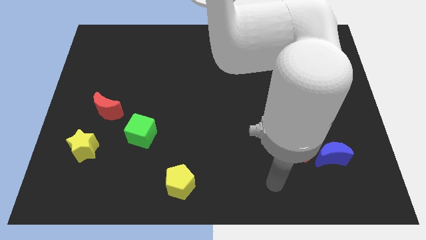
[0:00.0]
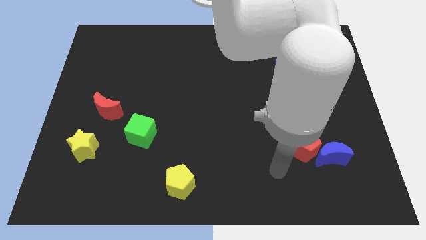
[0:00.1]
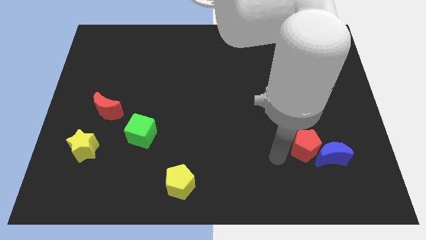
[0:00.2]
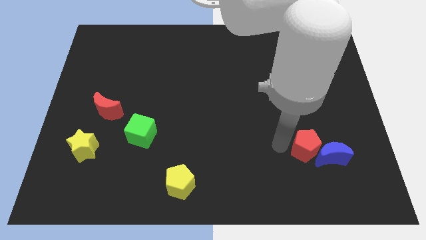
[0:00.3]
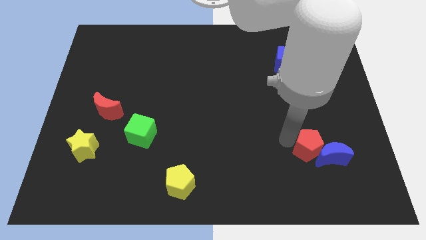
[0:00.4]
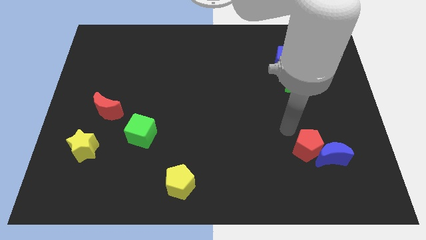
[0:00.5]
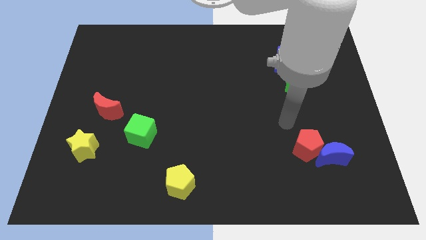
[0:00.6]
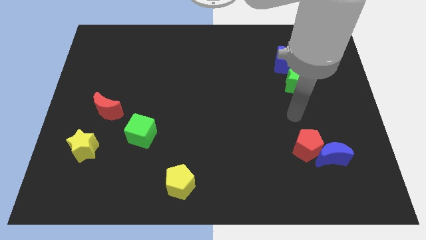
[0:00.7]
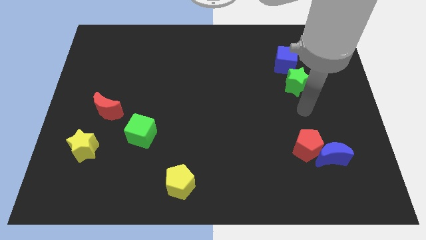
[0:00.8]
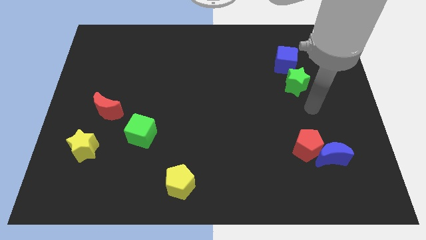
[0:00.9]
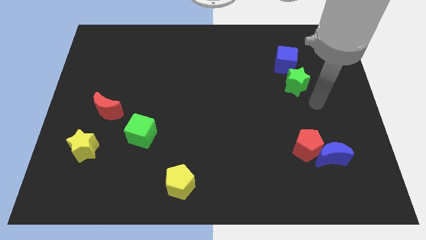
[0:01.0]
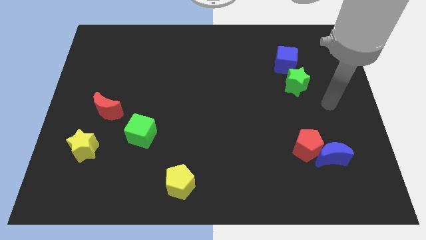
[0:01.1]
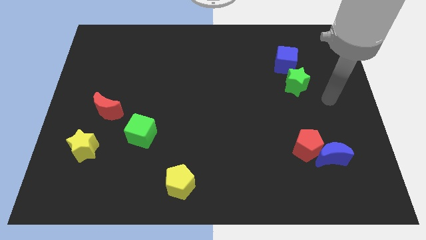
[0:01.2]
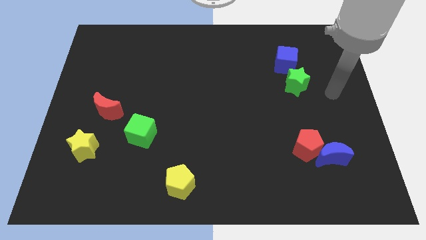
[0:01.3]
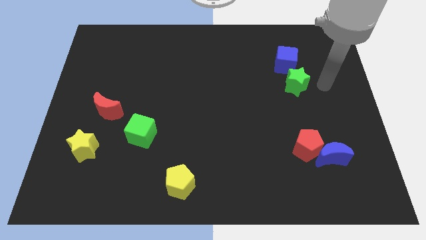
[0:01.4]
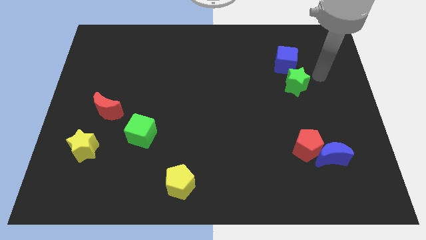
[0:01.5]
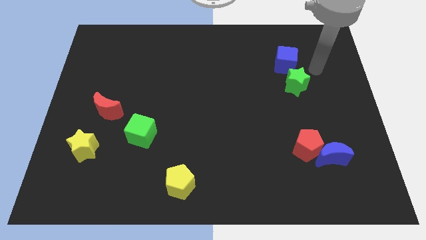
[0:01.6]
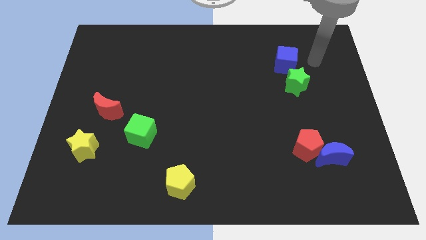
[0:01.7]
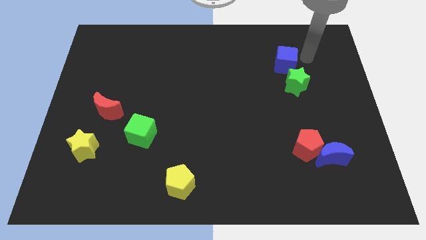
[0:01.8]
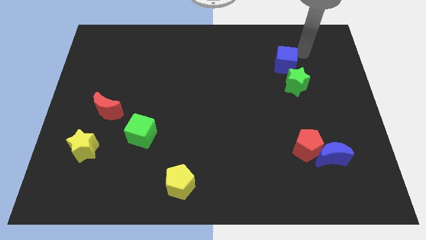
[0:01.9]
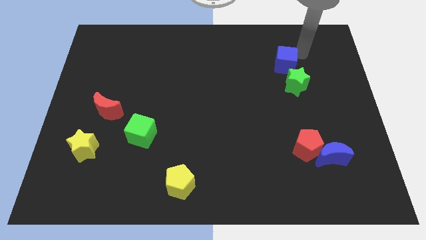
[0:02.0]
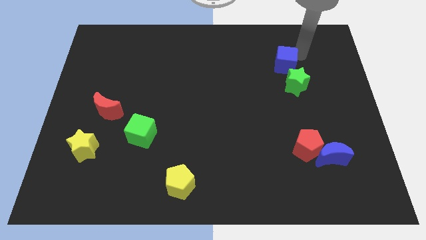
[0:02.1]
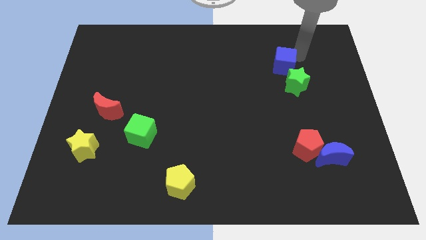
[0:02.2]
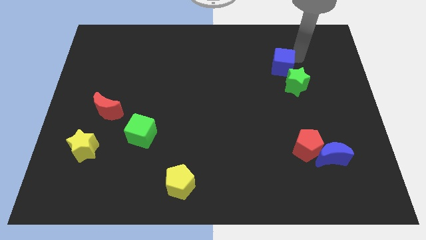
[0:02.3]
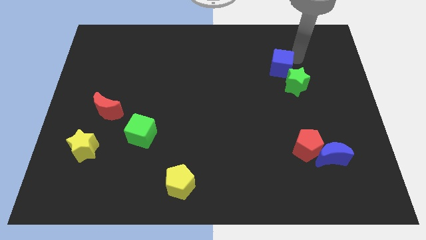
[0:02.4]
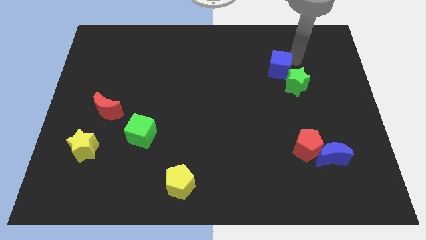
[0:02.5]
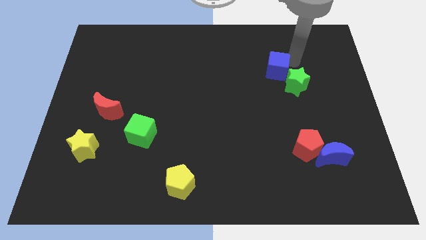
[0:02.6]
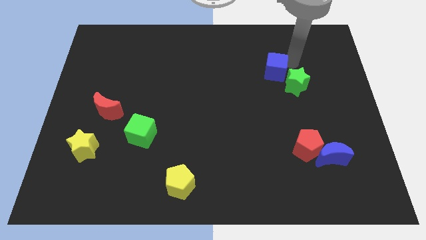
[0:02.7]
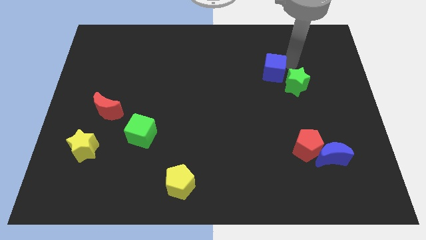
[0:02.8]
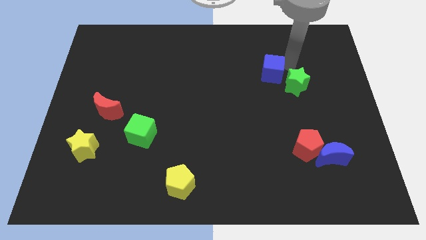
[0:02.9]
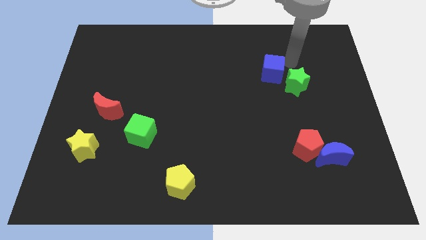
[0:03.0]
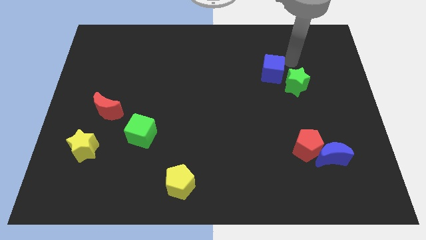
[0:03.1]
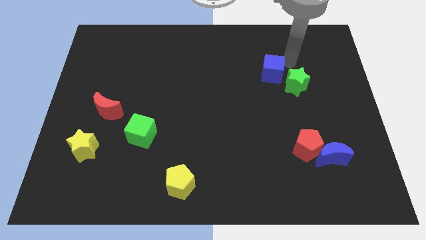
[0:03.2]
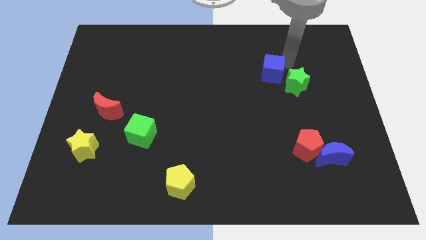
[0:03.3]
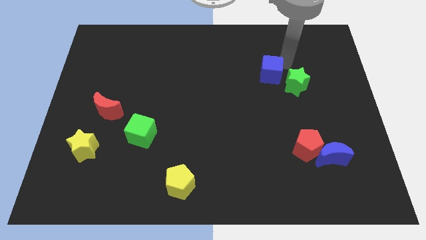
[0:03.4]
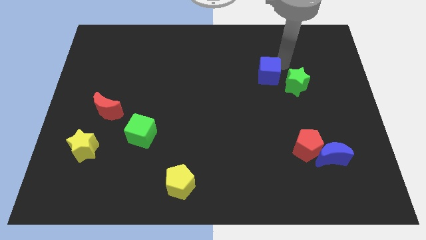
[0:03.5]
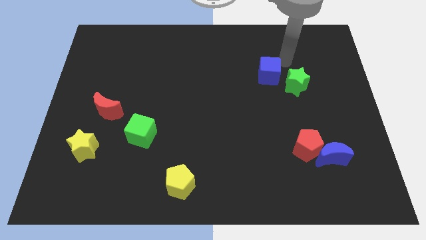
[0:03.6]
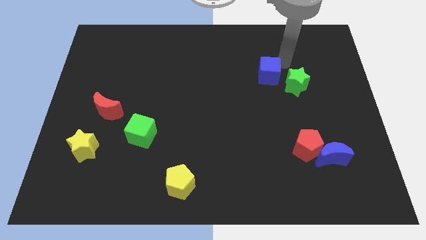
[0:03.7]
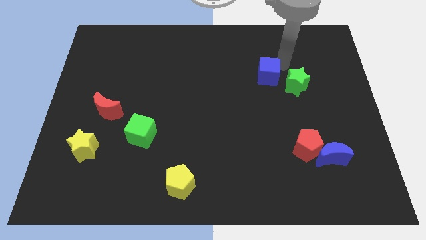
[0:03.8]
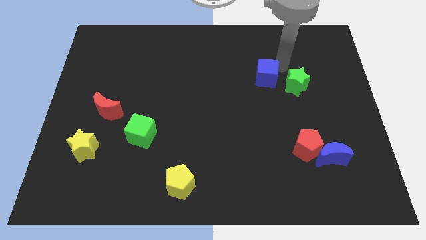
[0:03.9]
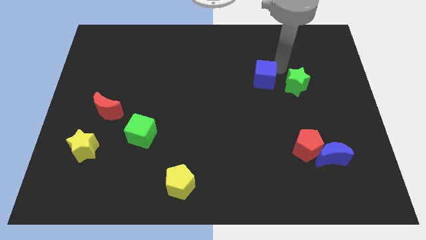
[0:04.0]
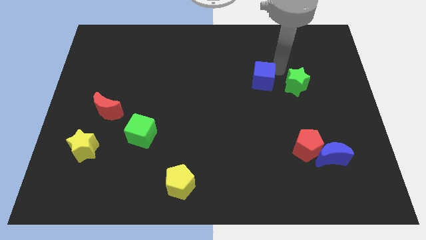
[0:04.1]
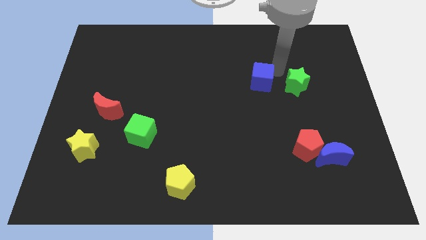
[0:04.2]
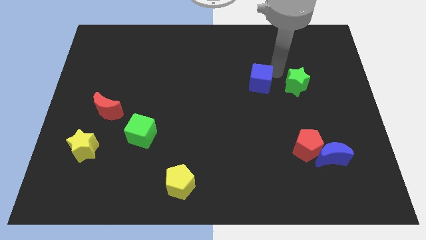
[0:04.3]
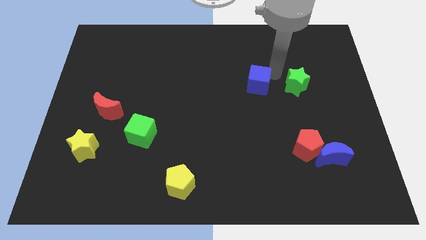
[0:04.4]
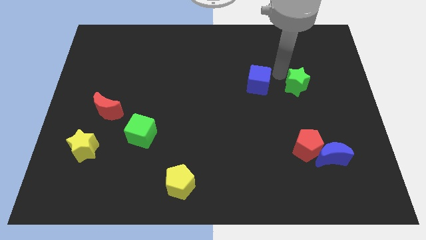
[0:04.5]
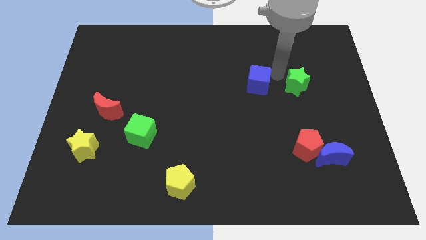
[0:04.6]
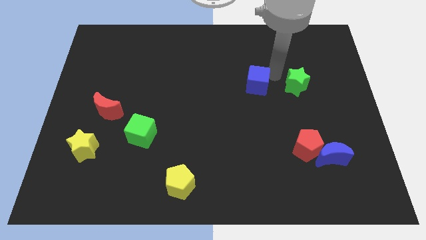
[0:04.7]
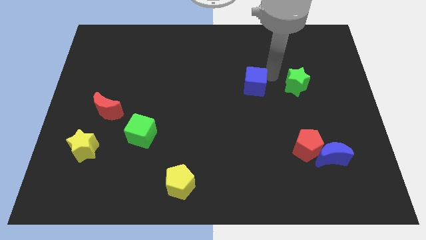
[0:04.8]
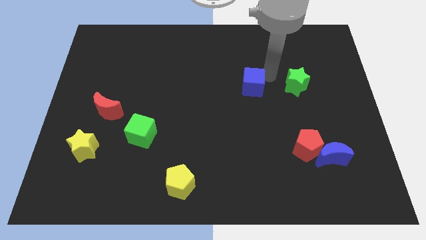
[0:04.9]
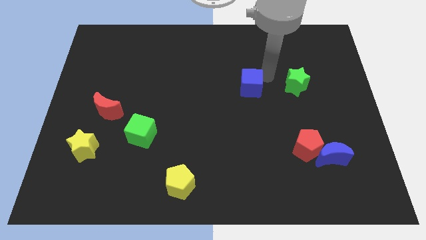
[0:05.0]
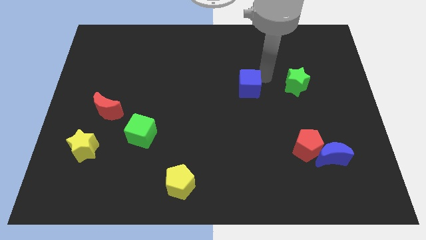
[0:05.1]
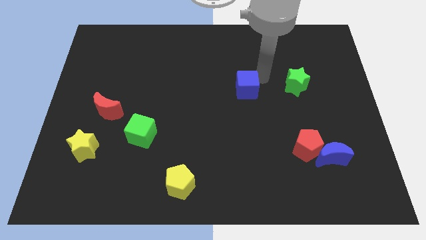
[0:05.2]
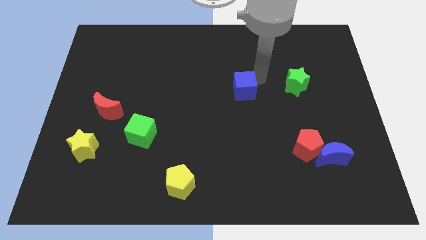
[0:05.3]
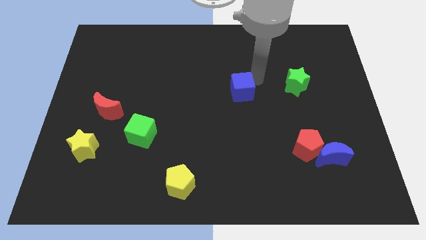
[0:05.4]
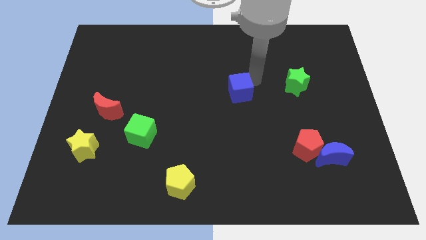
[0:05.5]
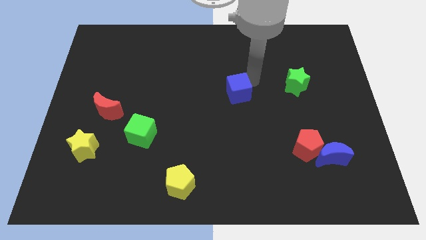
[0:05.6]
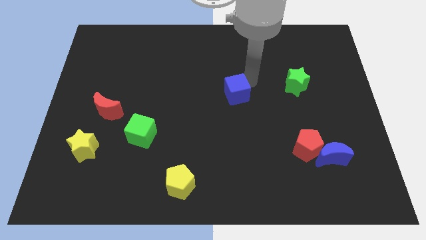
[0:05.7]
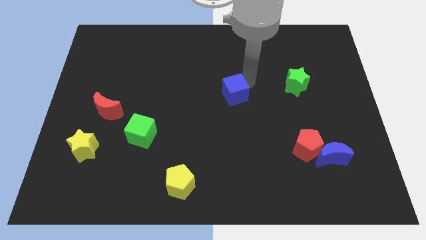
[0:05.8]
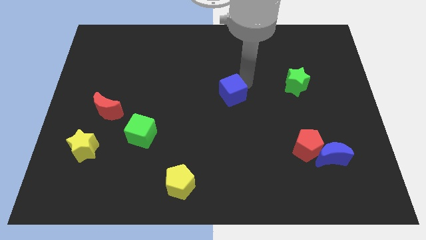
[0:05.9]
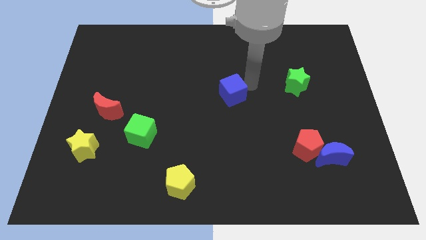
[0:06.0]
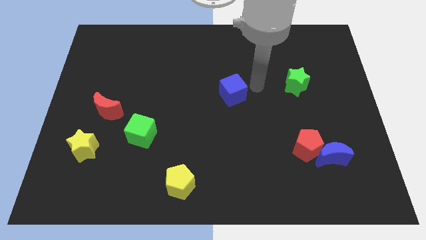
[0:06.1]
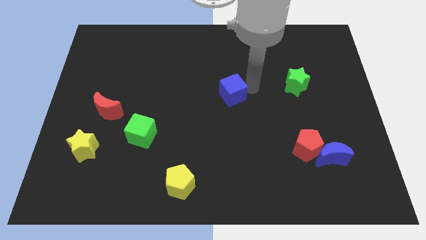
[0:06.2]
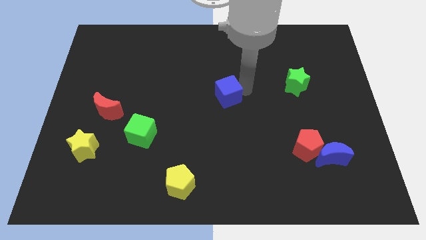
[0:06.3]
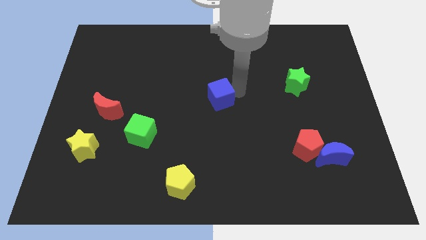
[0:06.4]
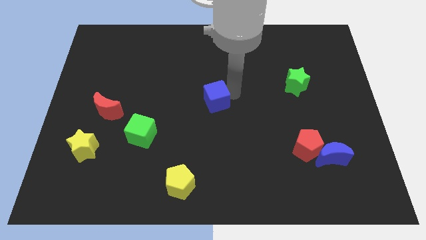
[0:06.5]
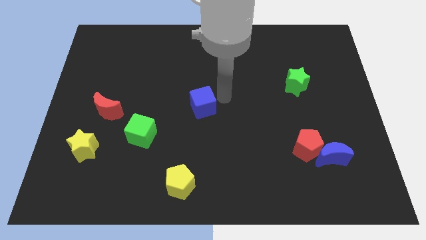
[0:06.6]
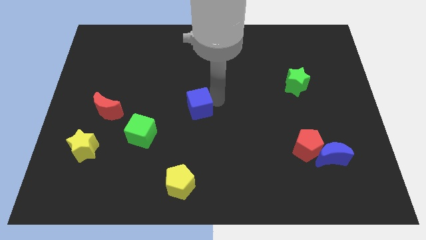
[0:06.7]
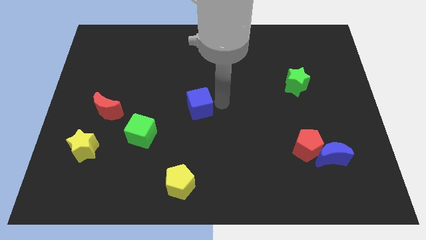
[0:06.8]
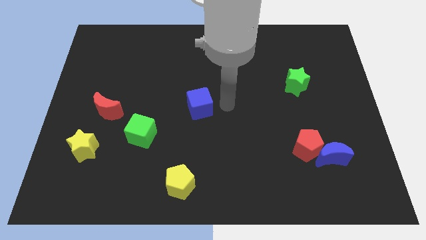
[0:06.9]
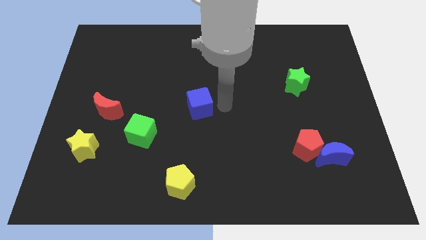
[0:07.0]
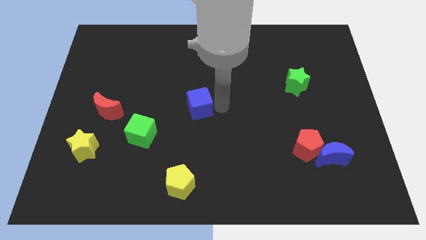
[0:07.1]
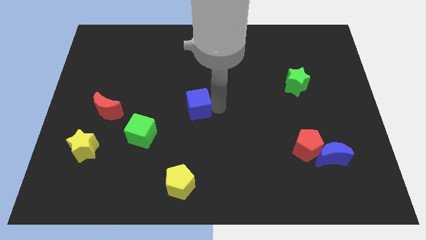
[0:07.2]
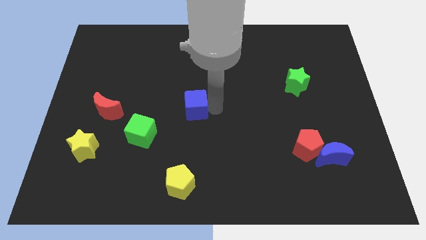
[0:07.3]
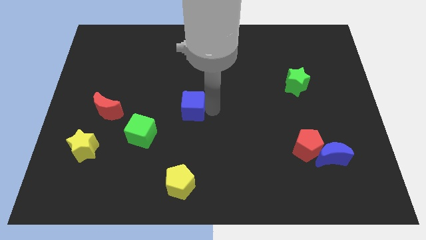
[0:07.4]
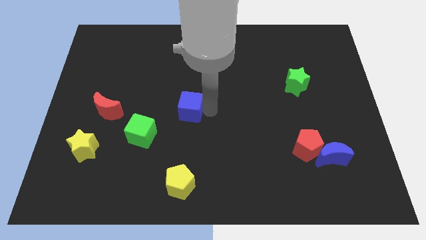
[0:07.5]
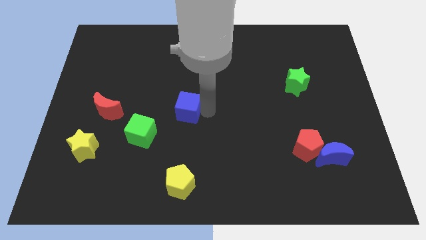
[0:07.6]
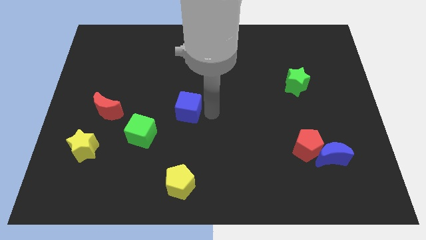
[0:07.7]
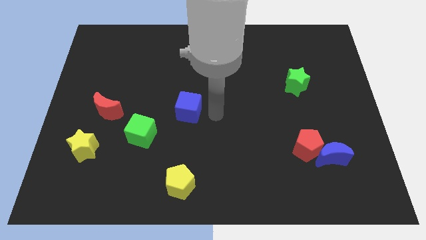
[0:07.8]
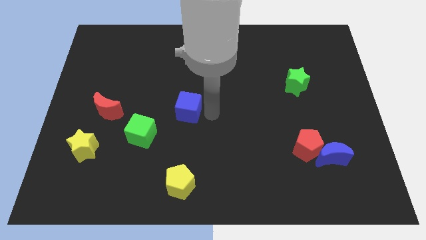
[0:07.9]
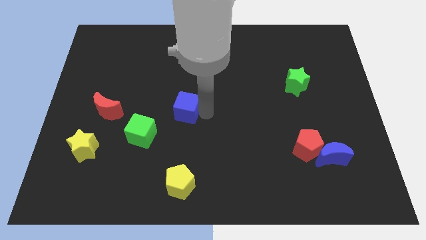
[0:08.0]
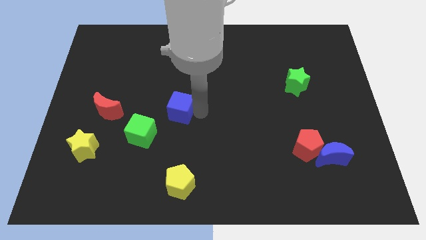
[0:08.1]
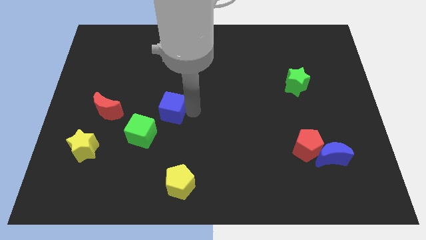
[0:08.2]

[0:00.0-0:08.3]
move the blue cube to the right of the red moon
